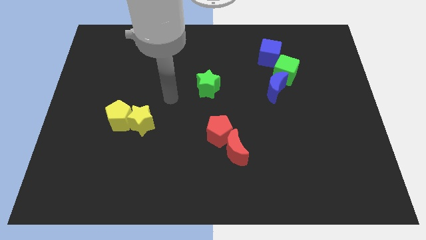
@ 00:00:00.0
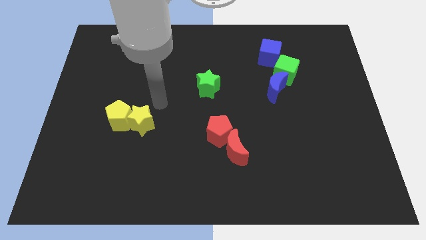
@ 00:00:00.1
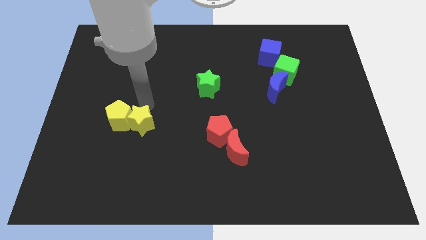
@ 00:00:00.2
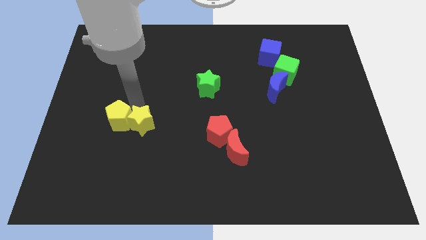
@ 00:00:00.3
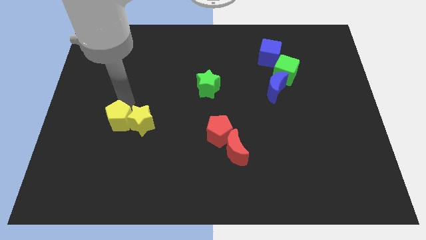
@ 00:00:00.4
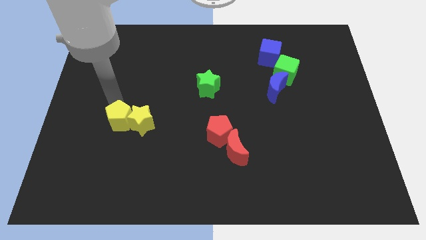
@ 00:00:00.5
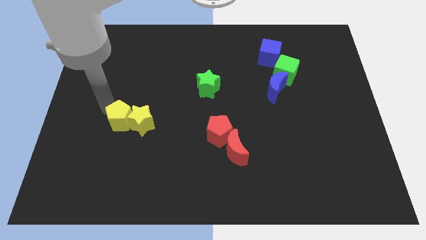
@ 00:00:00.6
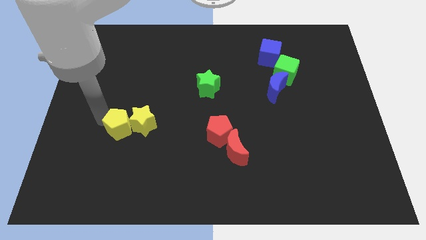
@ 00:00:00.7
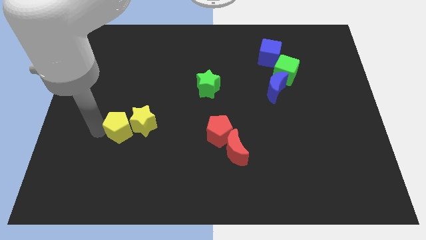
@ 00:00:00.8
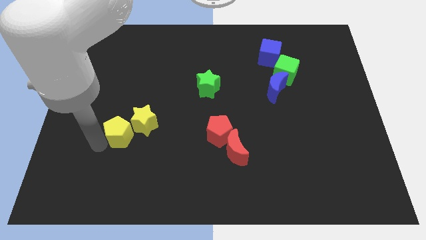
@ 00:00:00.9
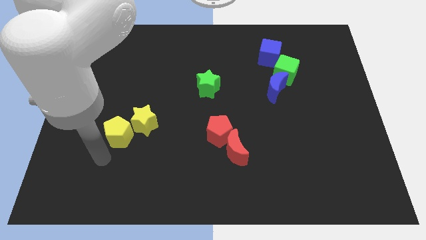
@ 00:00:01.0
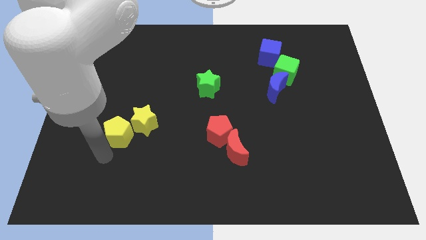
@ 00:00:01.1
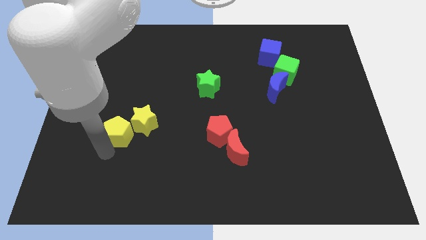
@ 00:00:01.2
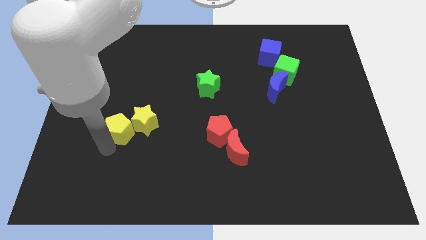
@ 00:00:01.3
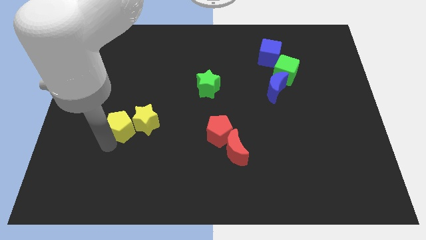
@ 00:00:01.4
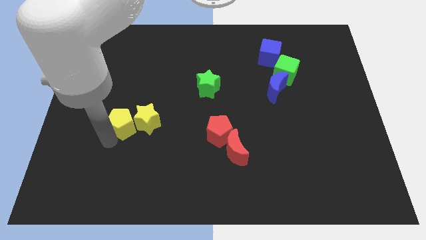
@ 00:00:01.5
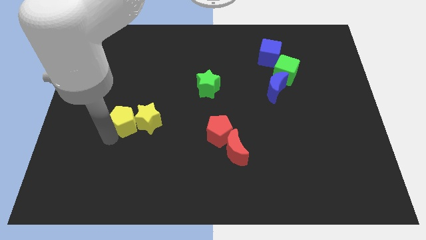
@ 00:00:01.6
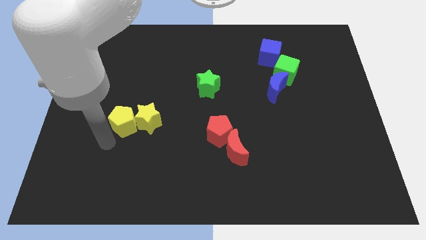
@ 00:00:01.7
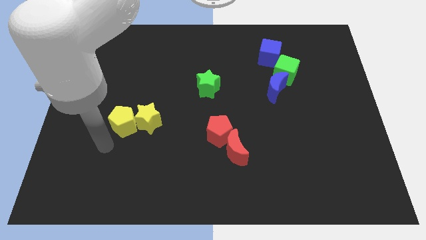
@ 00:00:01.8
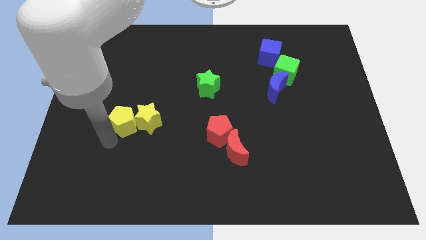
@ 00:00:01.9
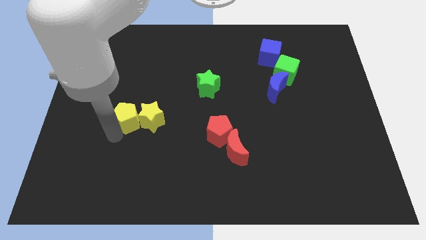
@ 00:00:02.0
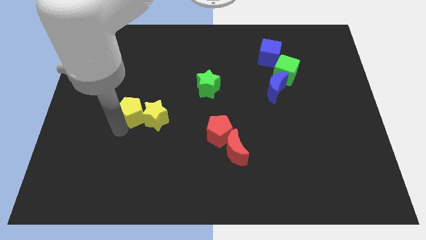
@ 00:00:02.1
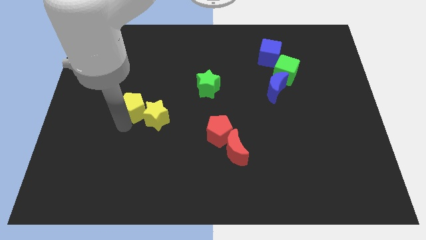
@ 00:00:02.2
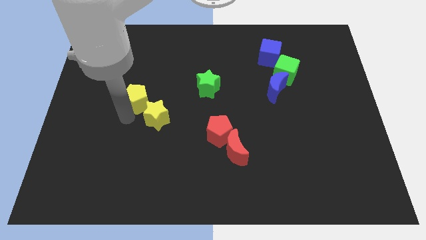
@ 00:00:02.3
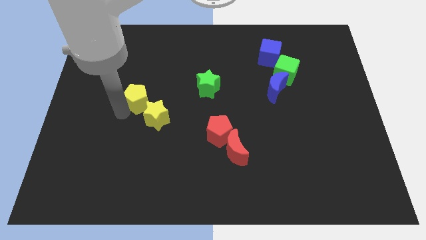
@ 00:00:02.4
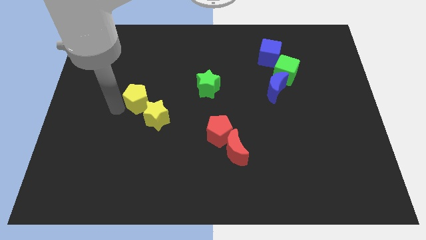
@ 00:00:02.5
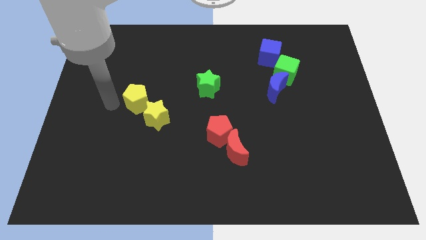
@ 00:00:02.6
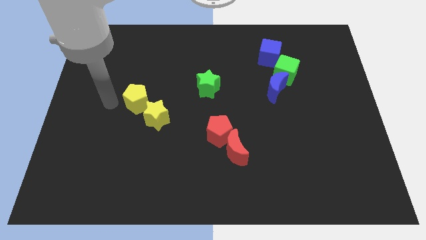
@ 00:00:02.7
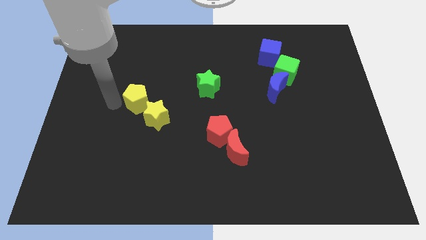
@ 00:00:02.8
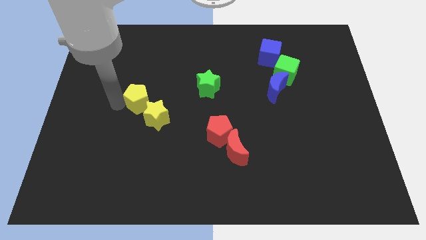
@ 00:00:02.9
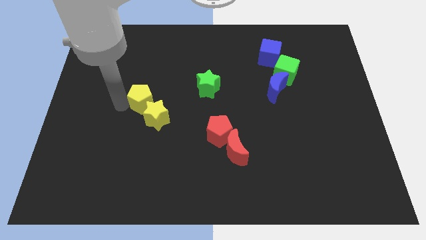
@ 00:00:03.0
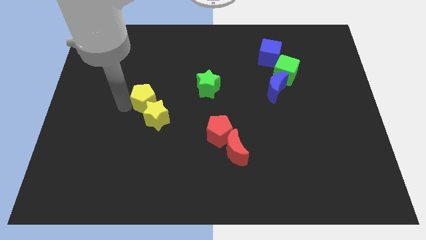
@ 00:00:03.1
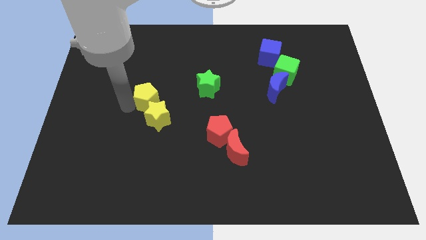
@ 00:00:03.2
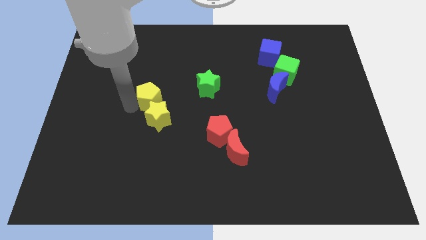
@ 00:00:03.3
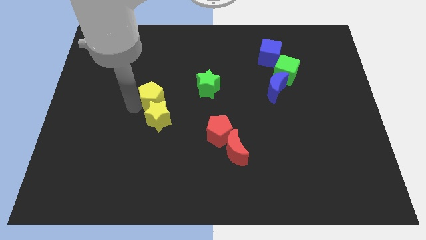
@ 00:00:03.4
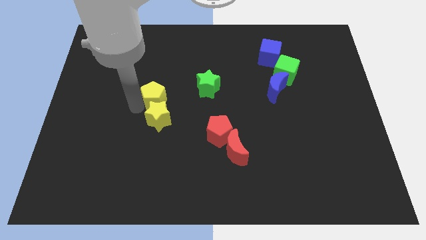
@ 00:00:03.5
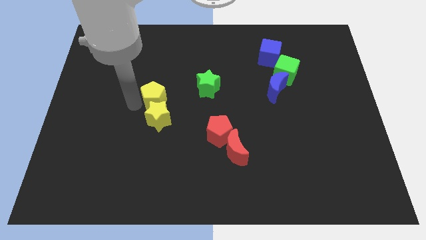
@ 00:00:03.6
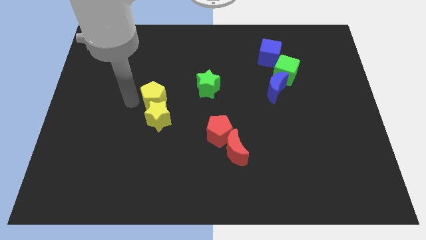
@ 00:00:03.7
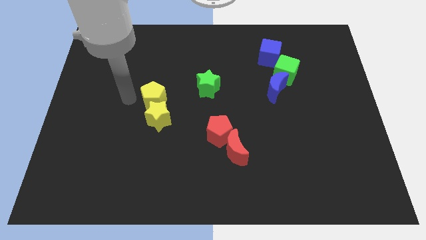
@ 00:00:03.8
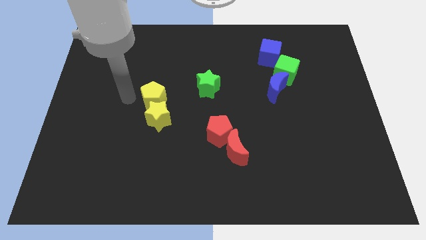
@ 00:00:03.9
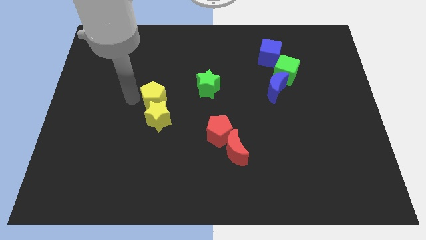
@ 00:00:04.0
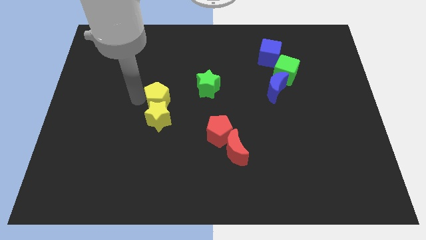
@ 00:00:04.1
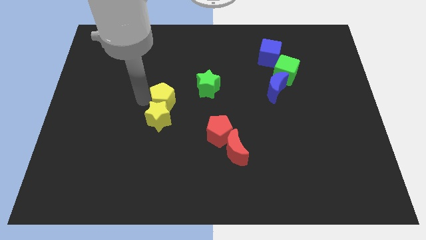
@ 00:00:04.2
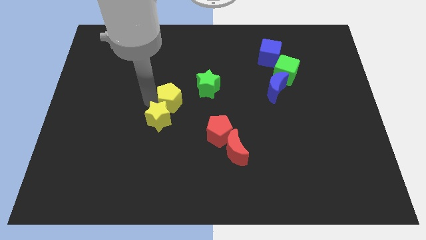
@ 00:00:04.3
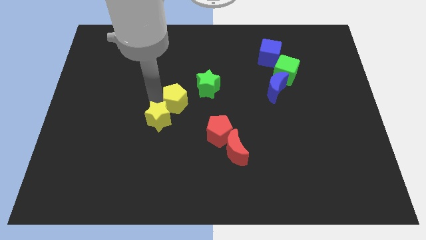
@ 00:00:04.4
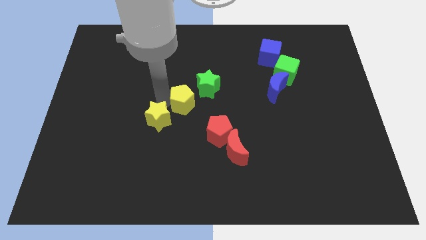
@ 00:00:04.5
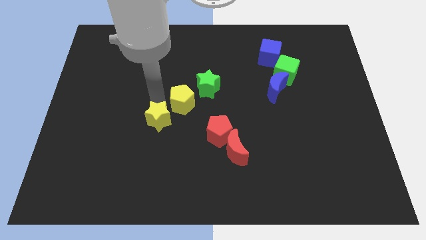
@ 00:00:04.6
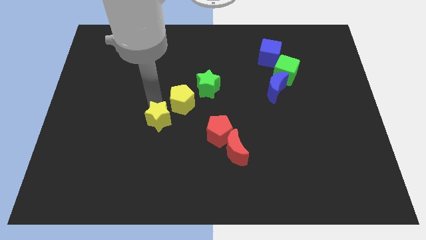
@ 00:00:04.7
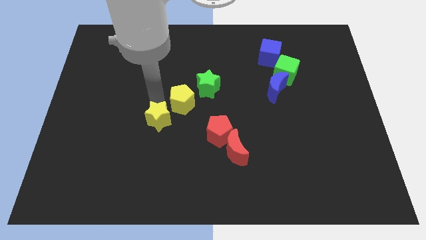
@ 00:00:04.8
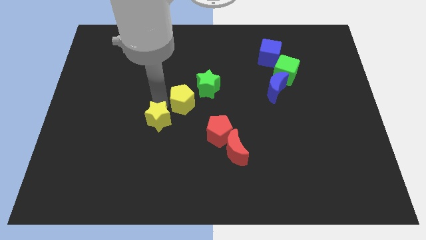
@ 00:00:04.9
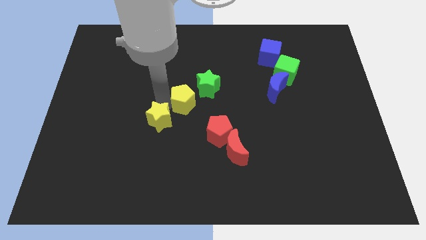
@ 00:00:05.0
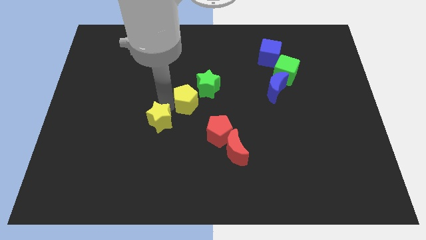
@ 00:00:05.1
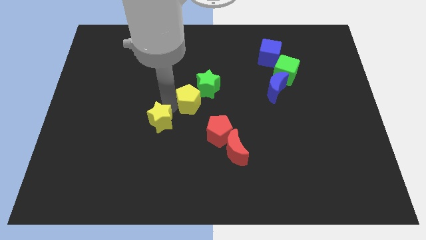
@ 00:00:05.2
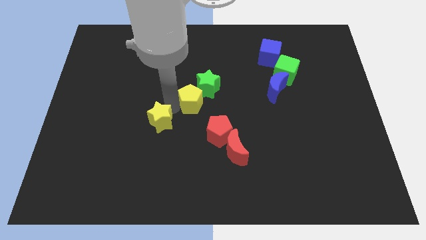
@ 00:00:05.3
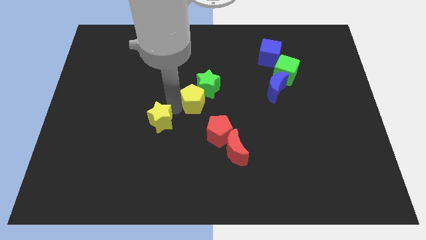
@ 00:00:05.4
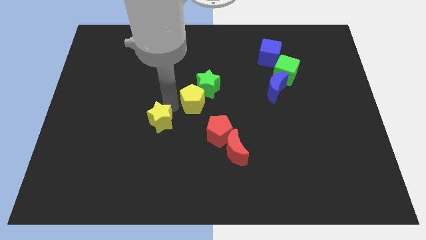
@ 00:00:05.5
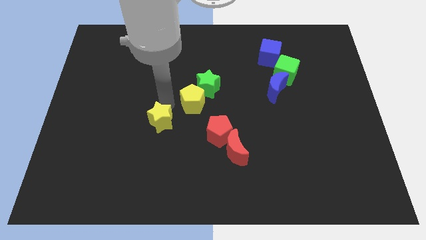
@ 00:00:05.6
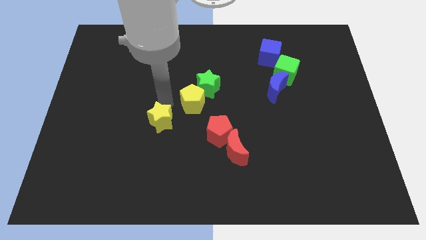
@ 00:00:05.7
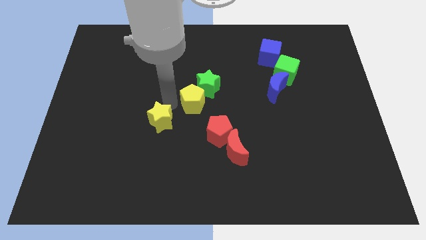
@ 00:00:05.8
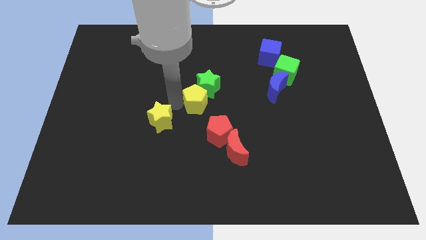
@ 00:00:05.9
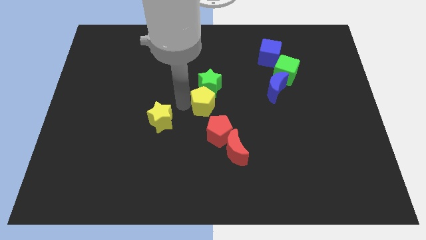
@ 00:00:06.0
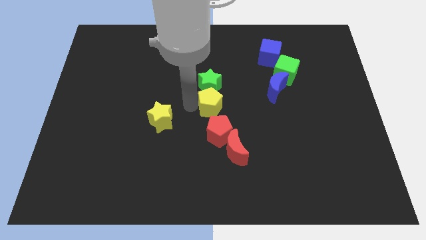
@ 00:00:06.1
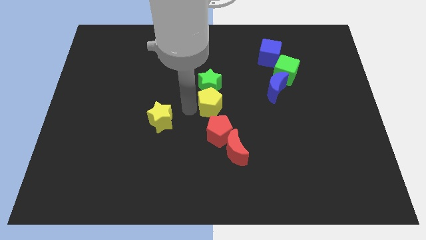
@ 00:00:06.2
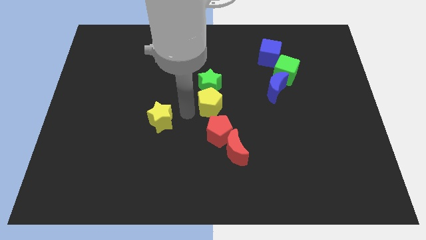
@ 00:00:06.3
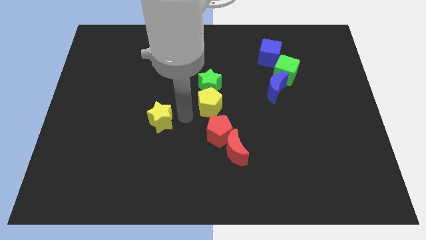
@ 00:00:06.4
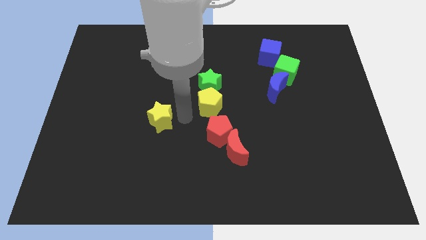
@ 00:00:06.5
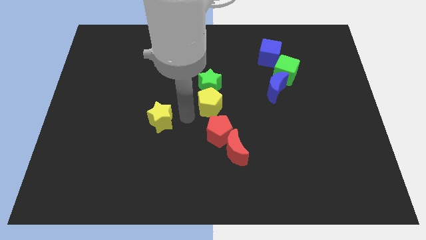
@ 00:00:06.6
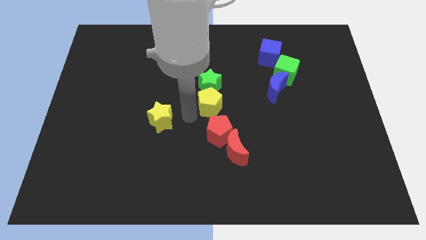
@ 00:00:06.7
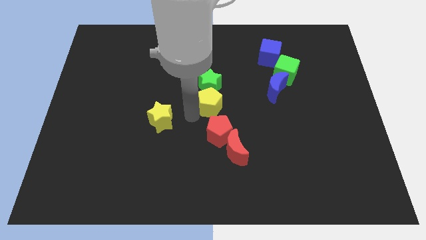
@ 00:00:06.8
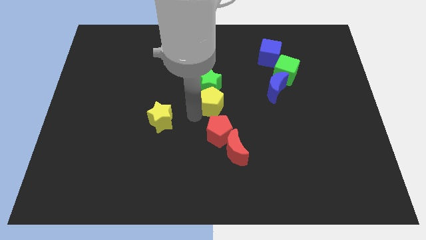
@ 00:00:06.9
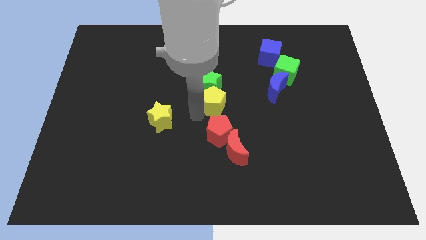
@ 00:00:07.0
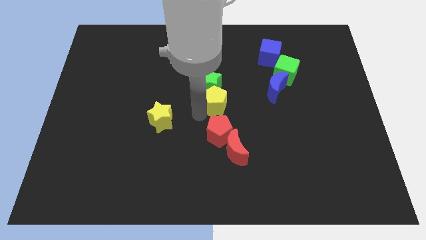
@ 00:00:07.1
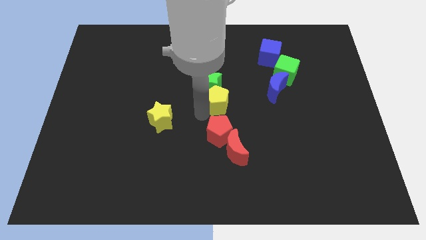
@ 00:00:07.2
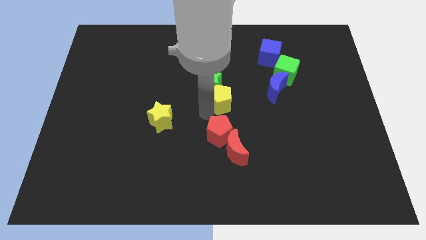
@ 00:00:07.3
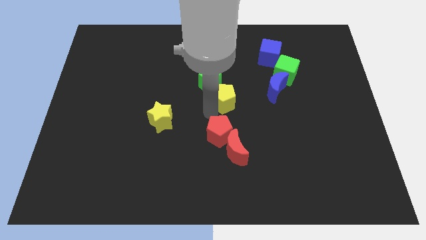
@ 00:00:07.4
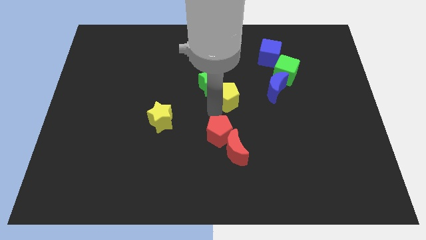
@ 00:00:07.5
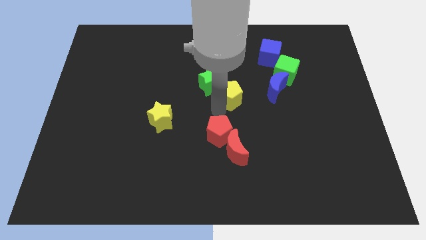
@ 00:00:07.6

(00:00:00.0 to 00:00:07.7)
move the yellow pentagon right of the green star
